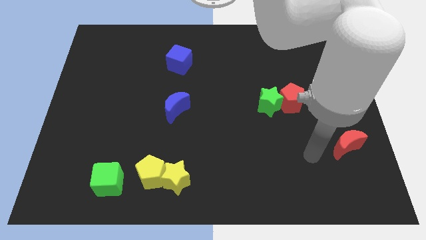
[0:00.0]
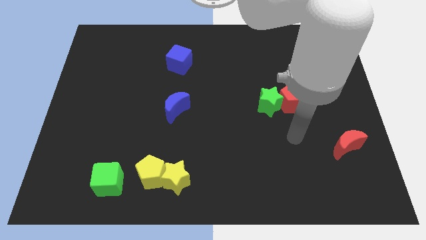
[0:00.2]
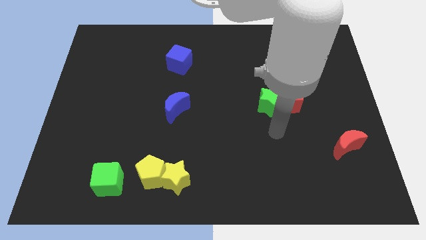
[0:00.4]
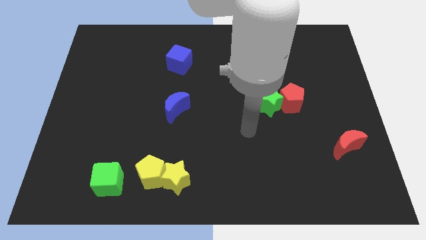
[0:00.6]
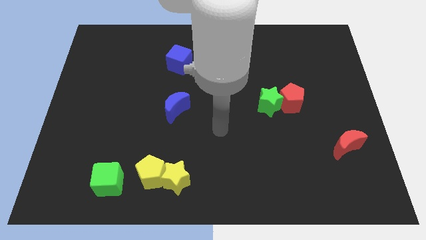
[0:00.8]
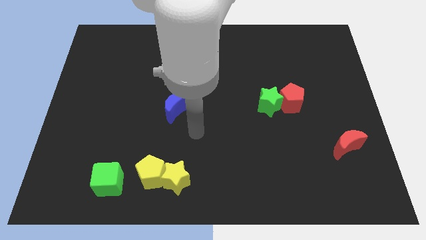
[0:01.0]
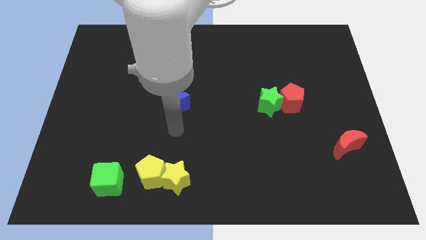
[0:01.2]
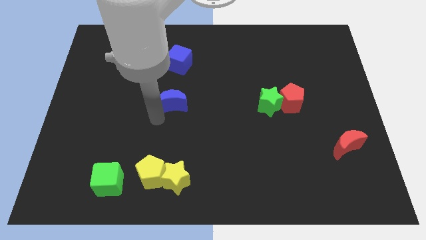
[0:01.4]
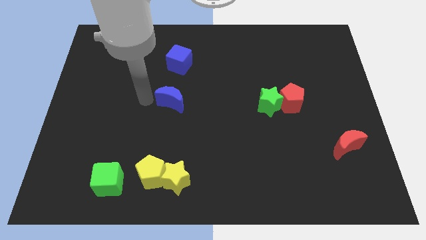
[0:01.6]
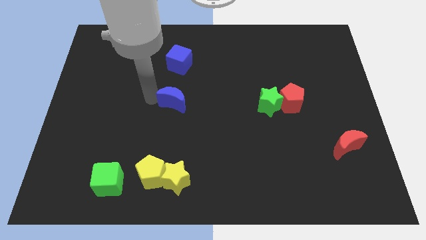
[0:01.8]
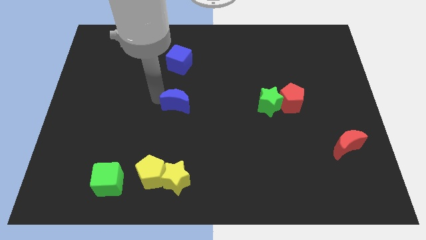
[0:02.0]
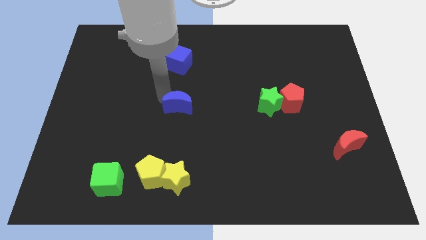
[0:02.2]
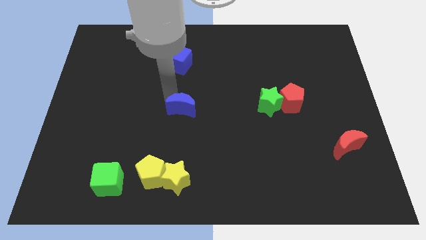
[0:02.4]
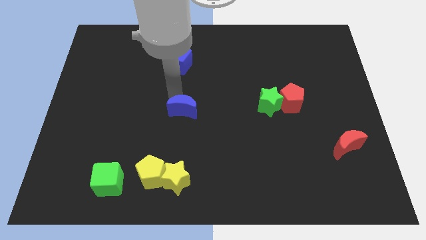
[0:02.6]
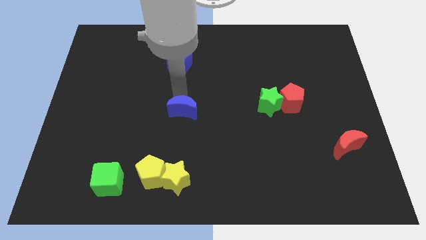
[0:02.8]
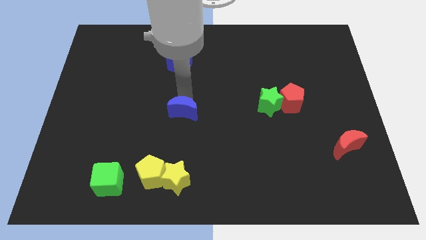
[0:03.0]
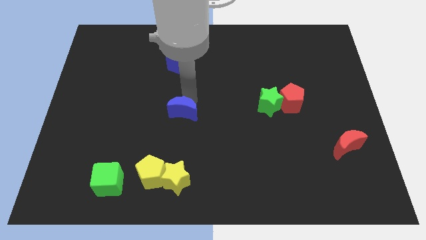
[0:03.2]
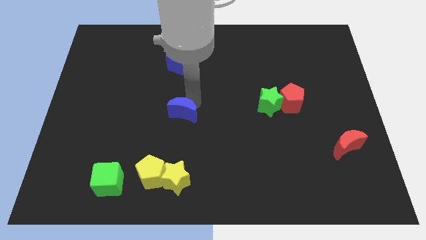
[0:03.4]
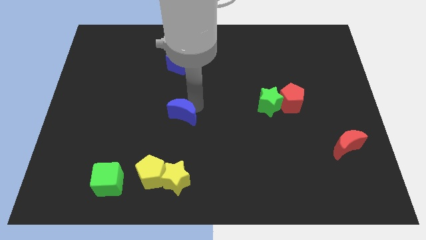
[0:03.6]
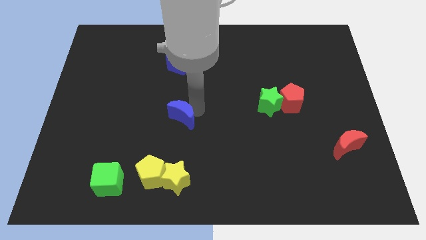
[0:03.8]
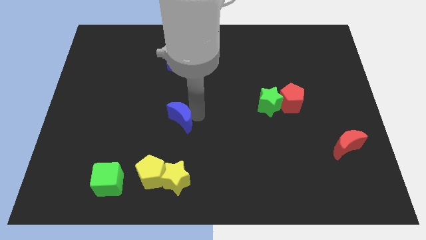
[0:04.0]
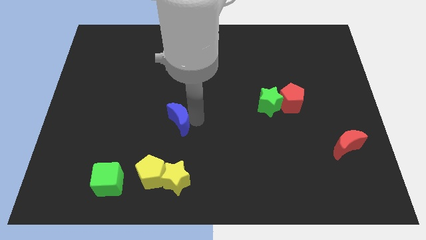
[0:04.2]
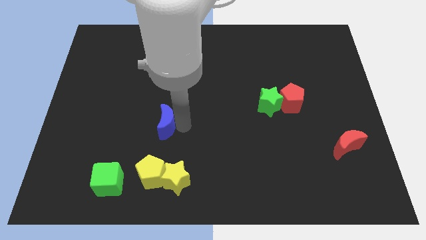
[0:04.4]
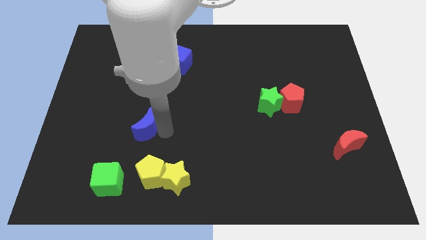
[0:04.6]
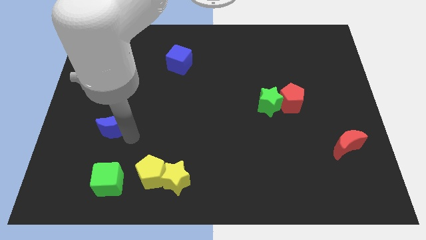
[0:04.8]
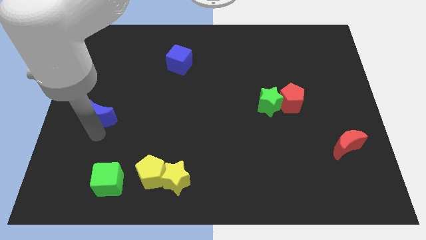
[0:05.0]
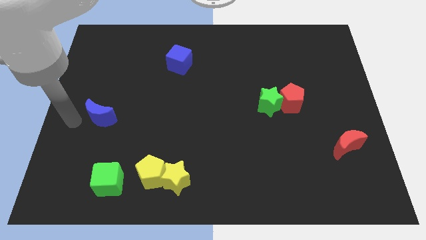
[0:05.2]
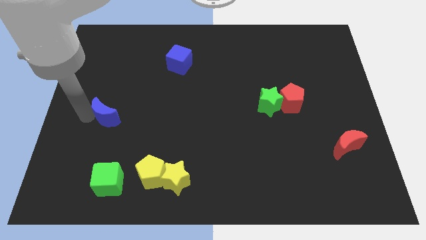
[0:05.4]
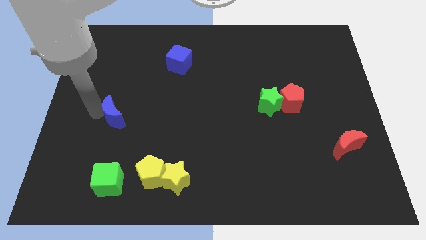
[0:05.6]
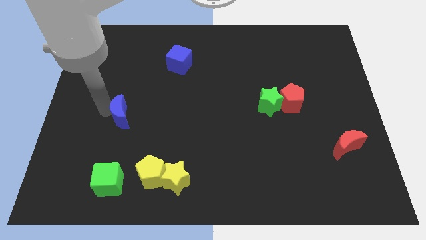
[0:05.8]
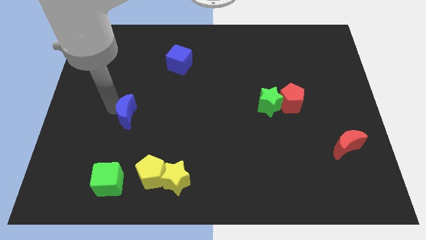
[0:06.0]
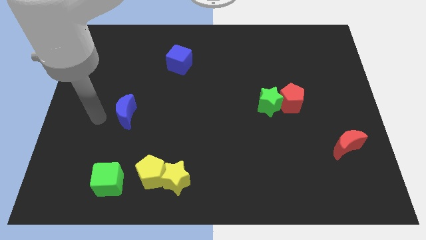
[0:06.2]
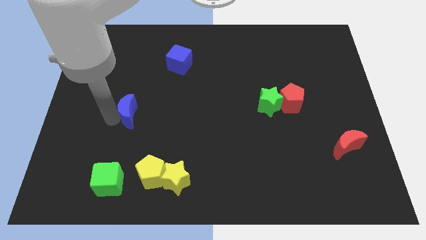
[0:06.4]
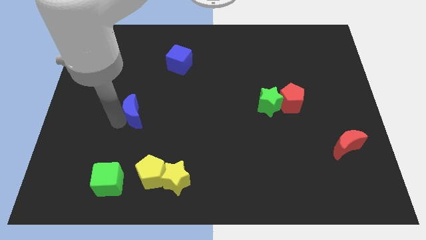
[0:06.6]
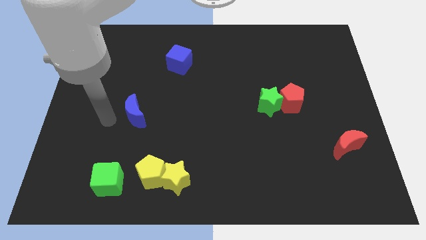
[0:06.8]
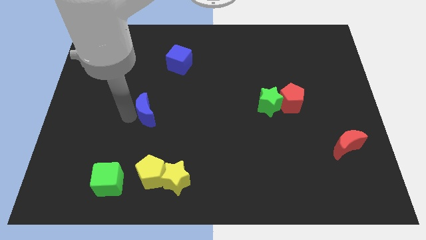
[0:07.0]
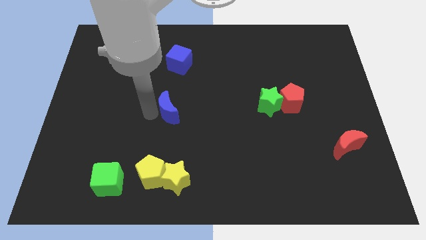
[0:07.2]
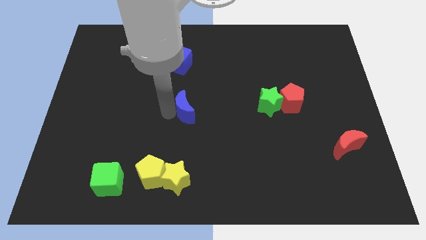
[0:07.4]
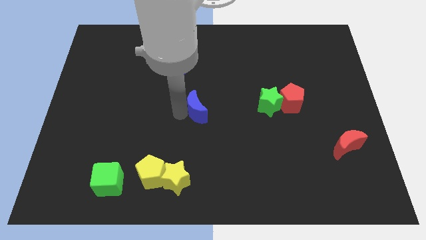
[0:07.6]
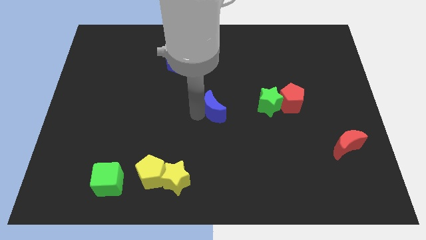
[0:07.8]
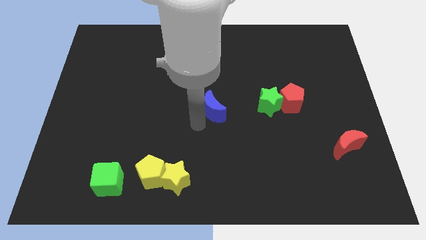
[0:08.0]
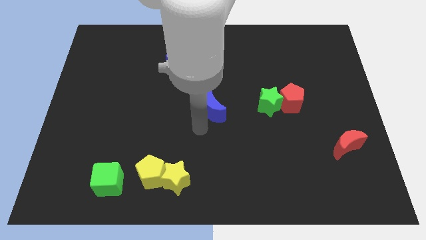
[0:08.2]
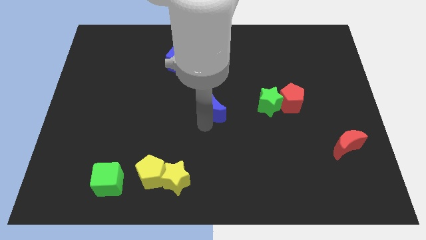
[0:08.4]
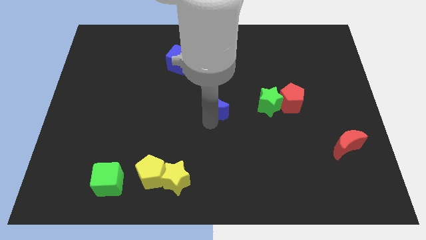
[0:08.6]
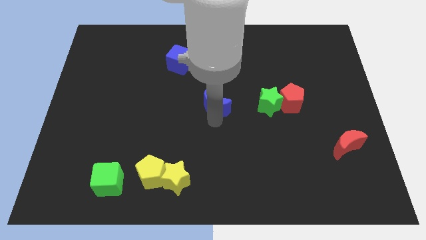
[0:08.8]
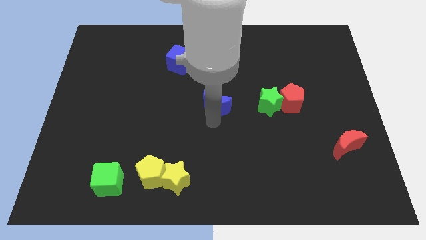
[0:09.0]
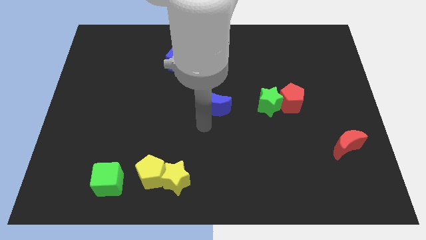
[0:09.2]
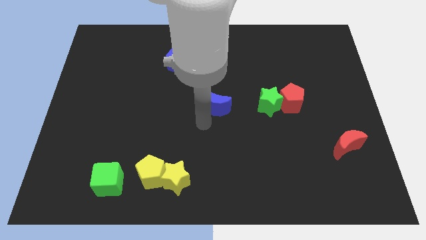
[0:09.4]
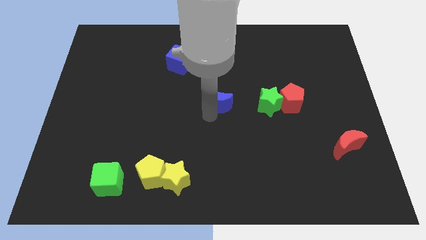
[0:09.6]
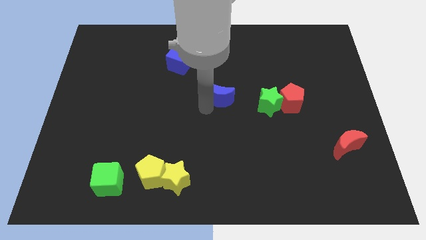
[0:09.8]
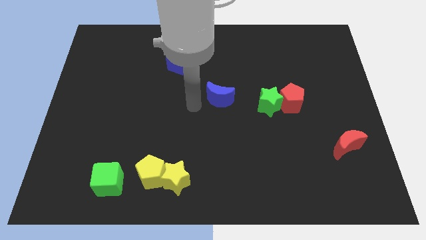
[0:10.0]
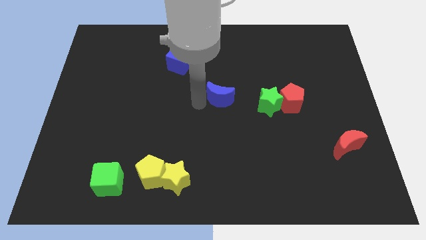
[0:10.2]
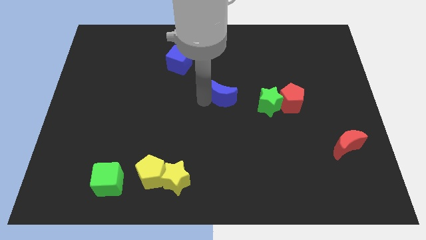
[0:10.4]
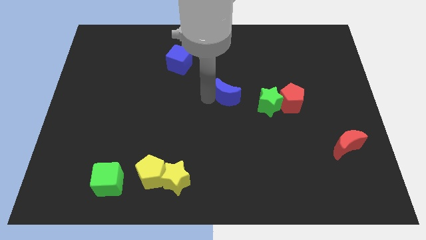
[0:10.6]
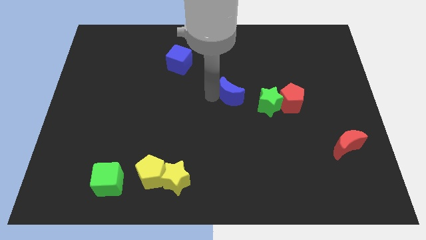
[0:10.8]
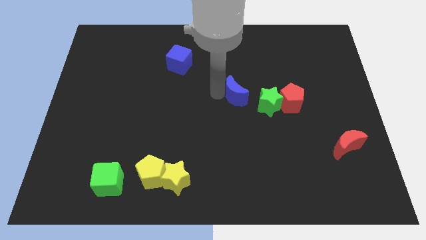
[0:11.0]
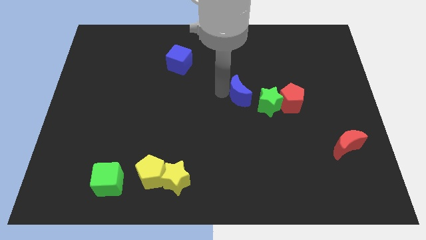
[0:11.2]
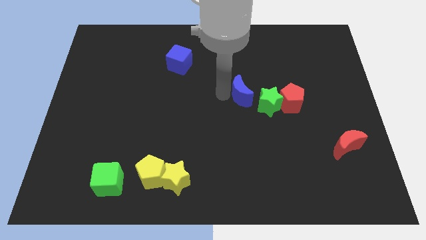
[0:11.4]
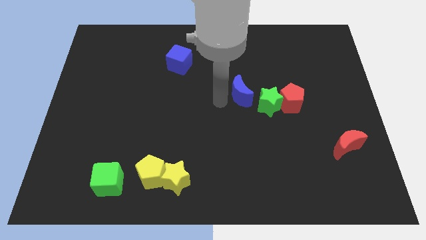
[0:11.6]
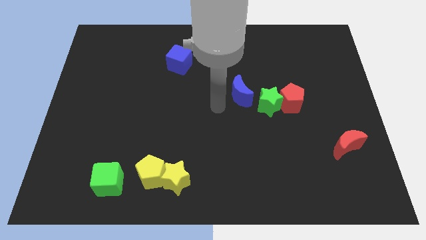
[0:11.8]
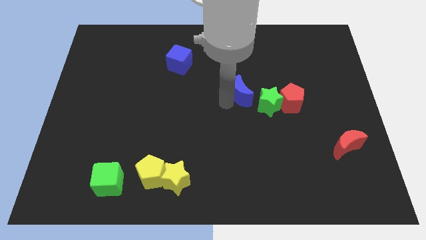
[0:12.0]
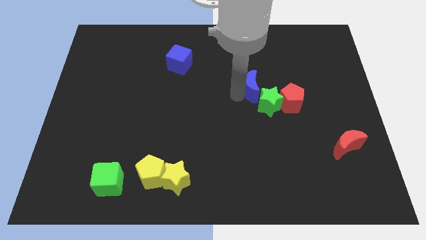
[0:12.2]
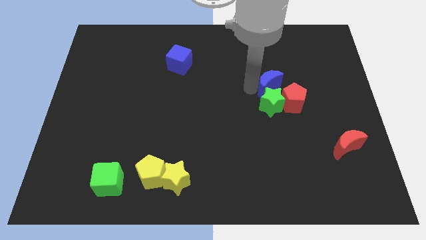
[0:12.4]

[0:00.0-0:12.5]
put the blue moon diagonally up and to the right of the green star
